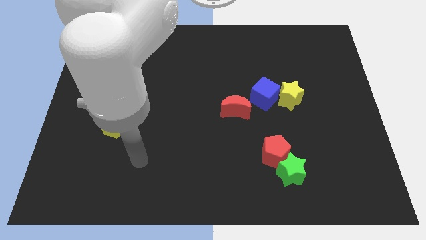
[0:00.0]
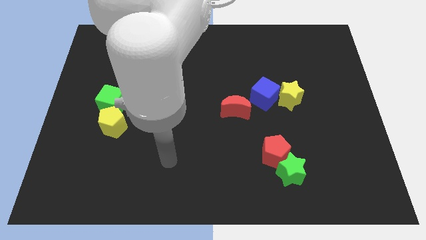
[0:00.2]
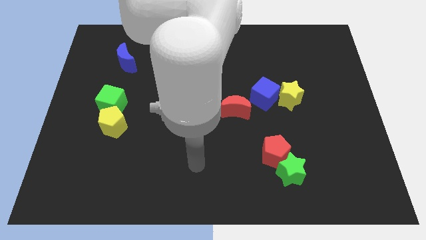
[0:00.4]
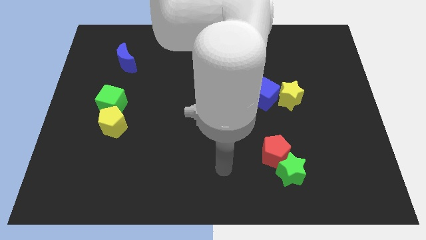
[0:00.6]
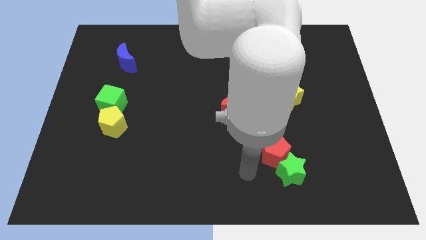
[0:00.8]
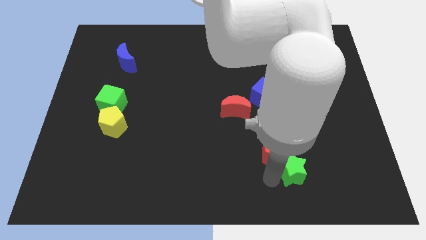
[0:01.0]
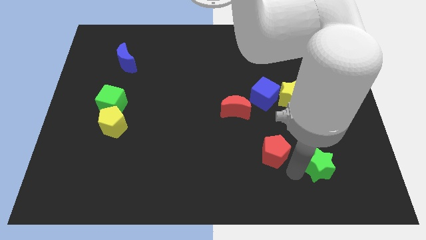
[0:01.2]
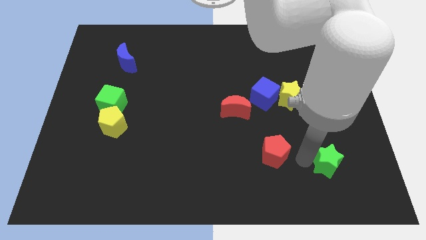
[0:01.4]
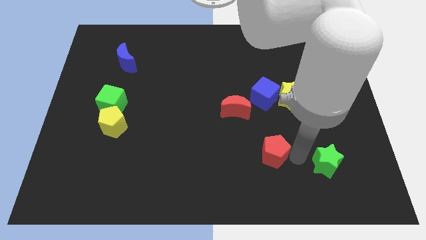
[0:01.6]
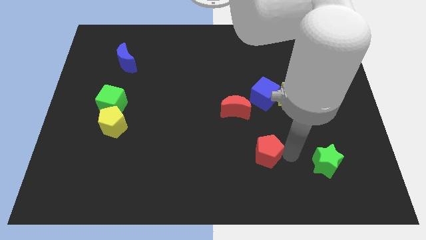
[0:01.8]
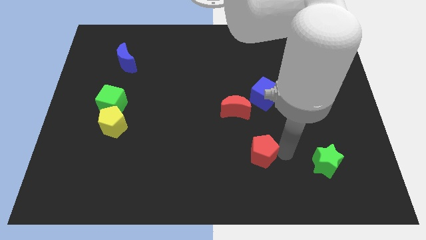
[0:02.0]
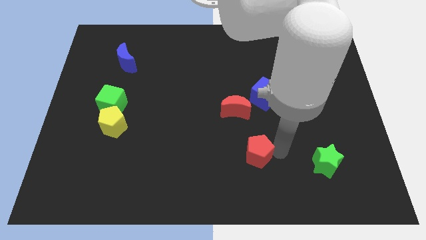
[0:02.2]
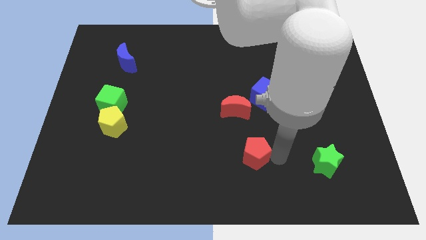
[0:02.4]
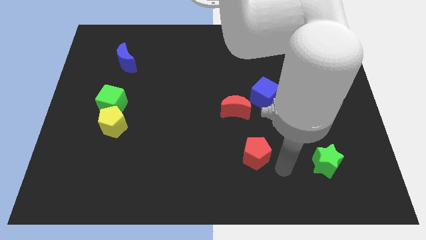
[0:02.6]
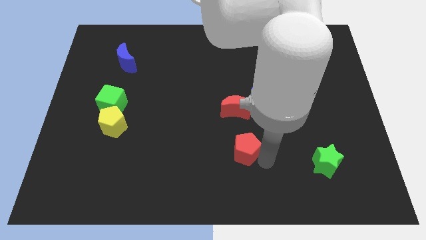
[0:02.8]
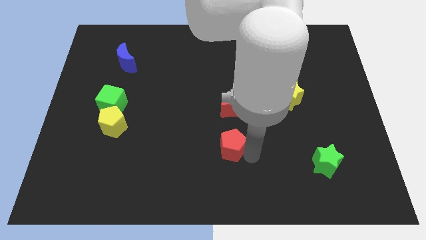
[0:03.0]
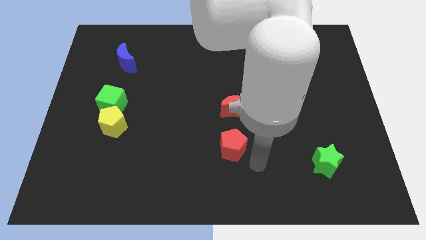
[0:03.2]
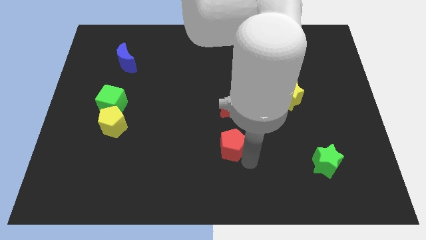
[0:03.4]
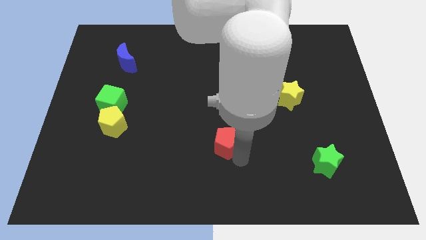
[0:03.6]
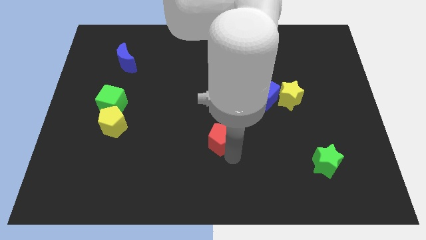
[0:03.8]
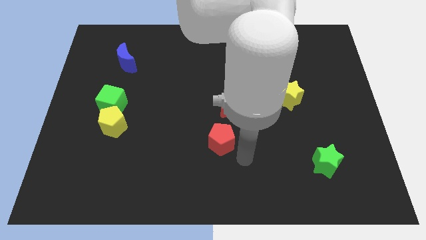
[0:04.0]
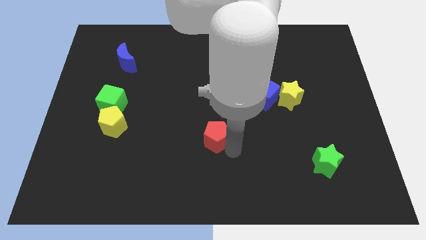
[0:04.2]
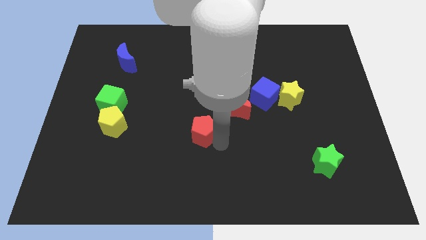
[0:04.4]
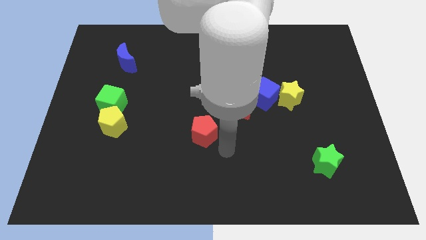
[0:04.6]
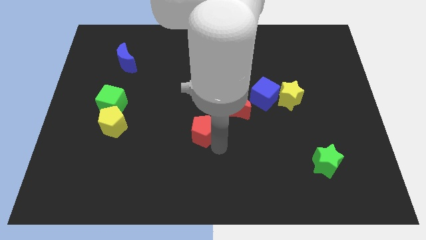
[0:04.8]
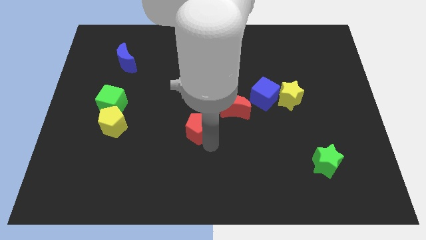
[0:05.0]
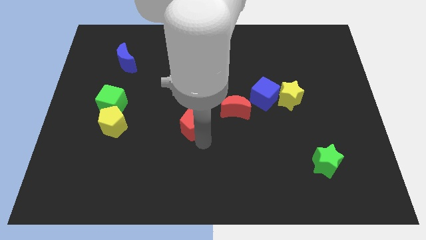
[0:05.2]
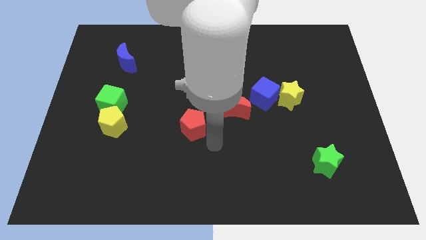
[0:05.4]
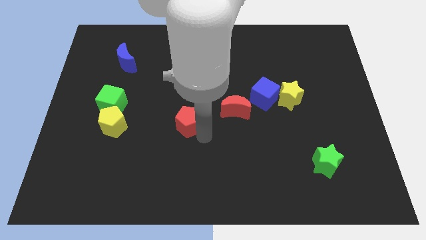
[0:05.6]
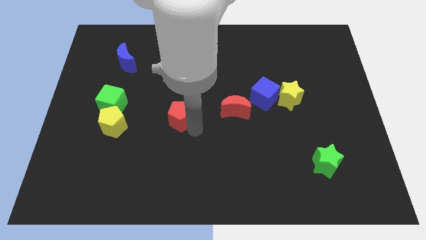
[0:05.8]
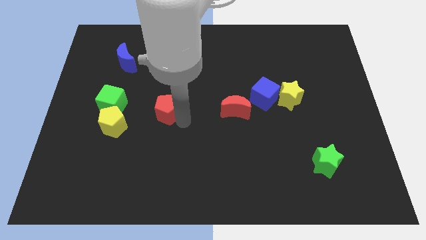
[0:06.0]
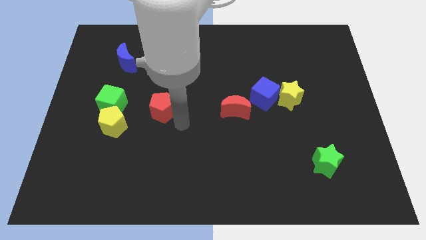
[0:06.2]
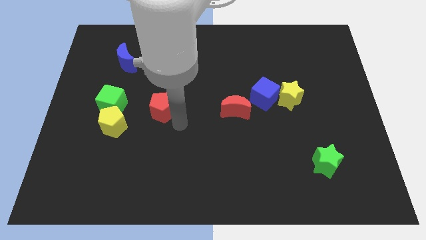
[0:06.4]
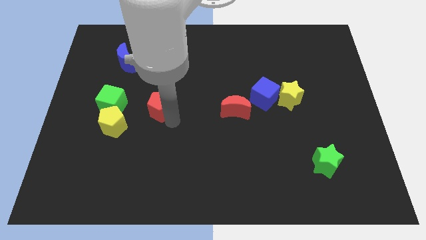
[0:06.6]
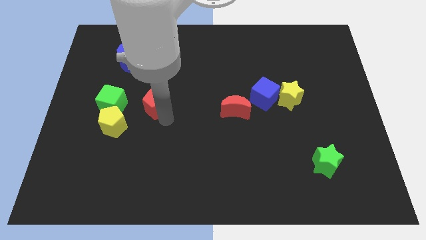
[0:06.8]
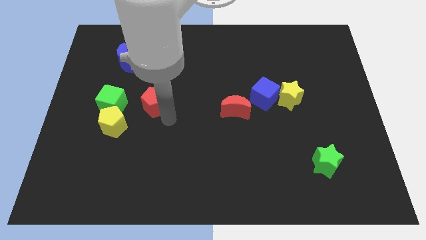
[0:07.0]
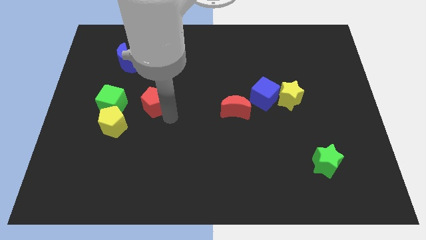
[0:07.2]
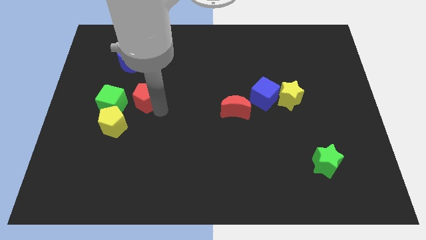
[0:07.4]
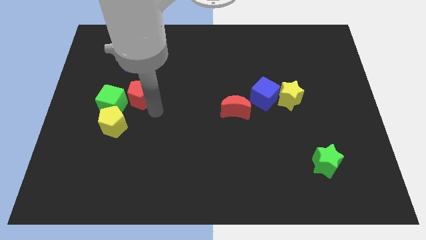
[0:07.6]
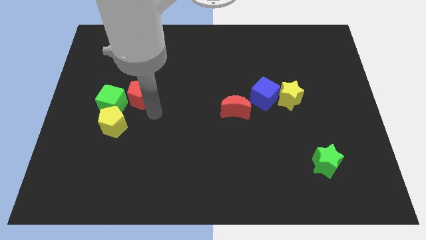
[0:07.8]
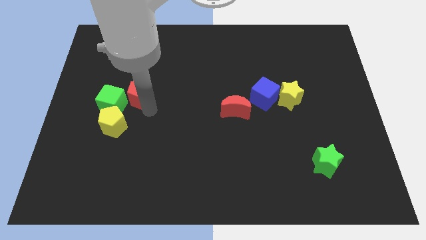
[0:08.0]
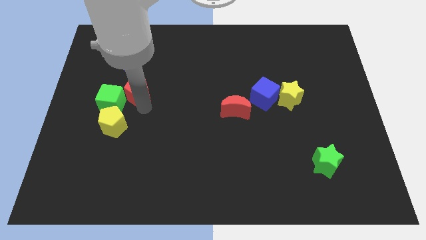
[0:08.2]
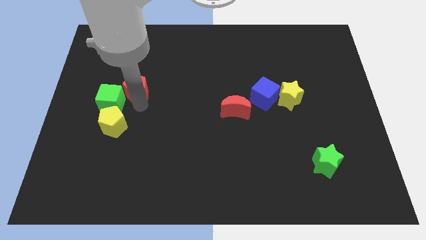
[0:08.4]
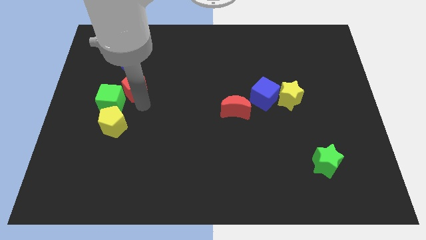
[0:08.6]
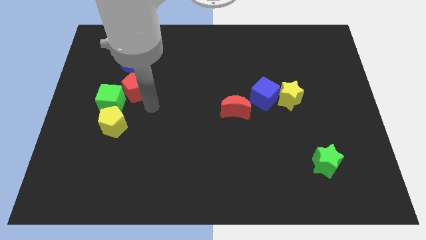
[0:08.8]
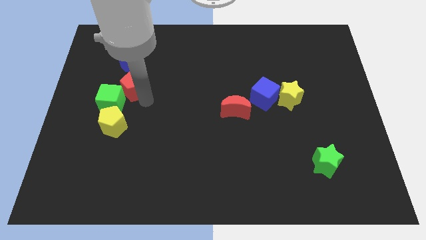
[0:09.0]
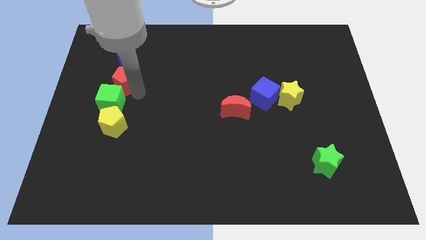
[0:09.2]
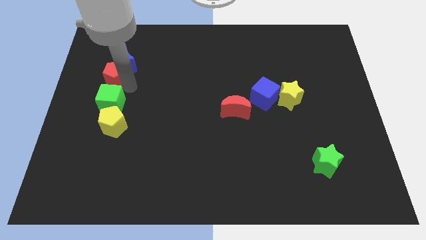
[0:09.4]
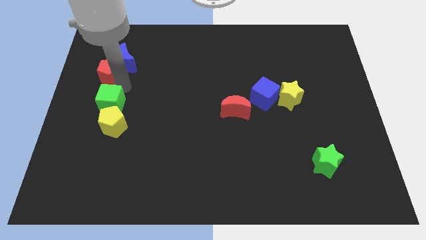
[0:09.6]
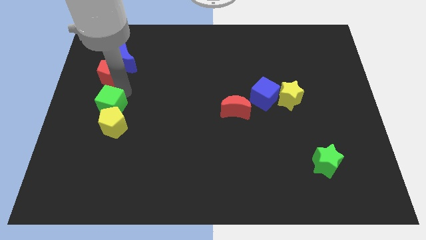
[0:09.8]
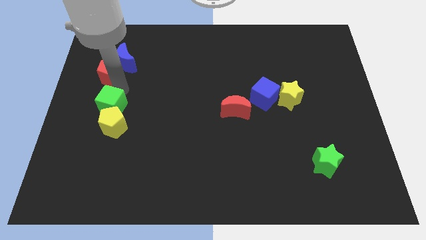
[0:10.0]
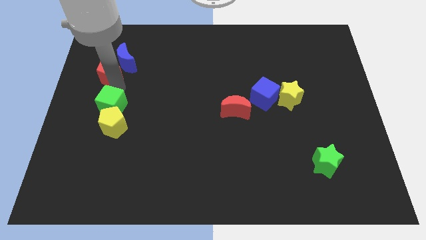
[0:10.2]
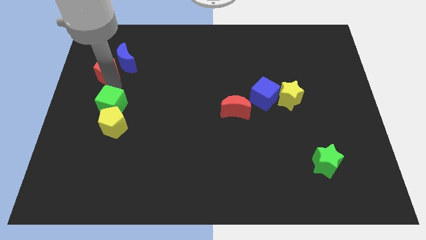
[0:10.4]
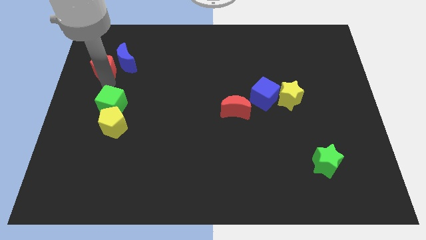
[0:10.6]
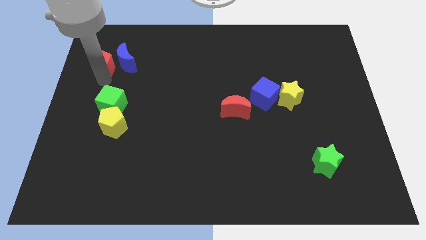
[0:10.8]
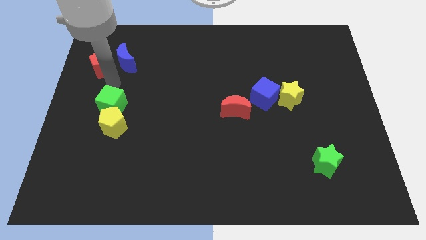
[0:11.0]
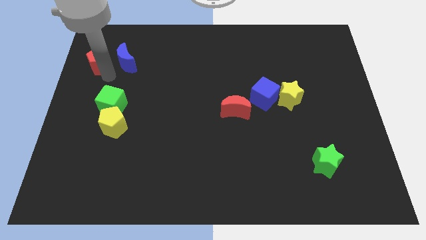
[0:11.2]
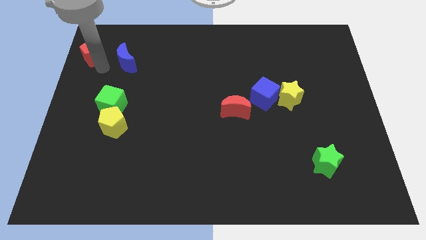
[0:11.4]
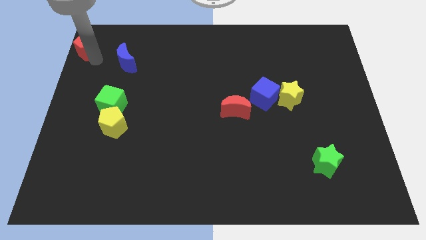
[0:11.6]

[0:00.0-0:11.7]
push the red pentagon to the top left of the board

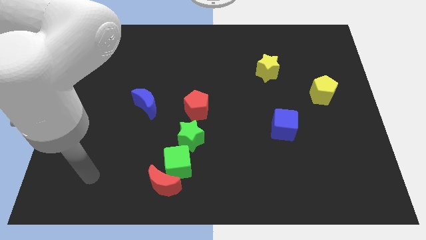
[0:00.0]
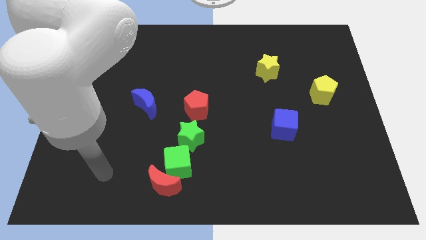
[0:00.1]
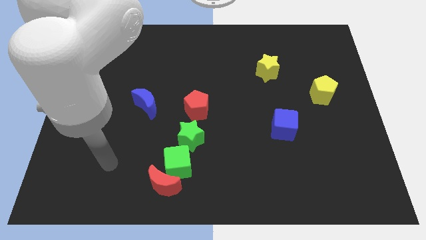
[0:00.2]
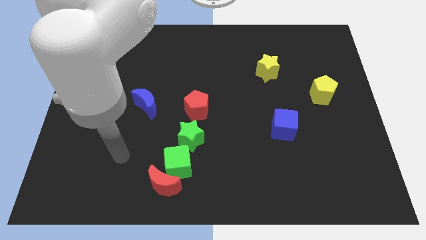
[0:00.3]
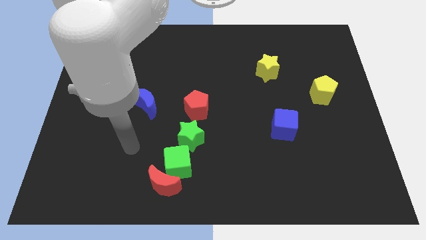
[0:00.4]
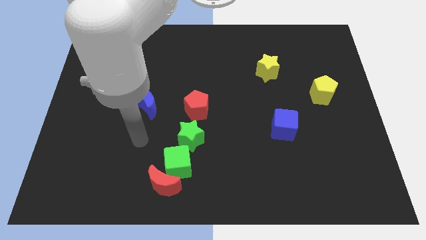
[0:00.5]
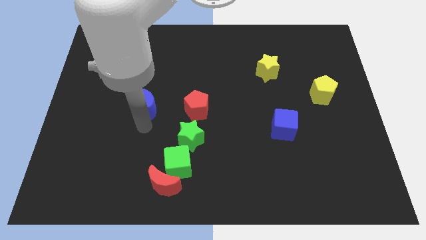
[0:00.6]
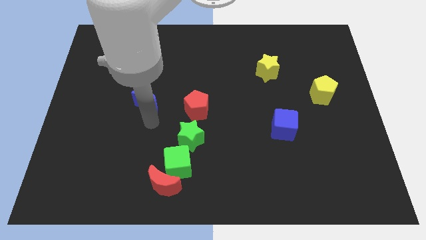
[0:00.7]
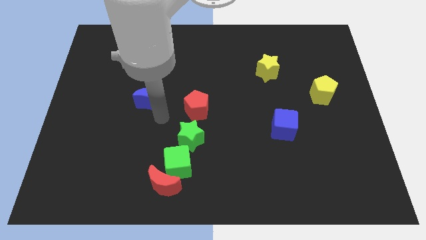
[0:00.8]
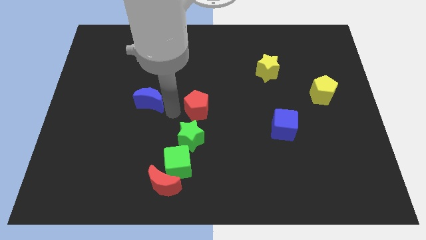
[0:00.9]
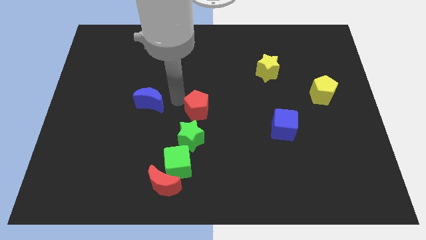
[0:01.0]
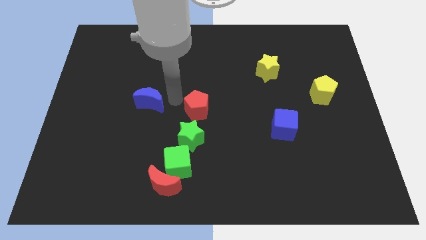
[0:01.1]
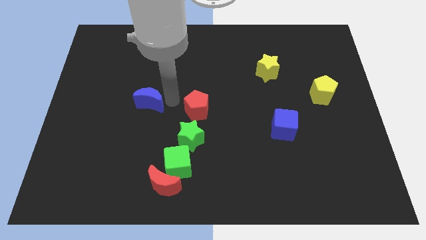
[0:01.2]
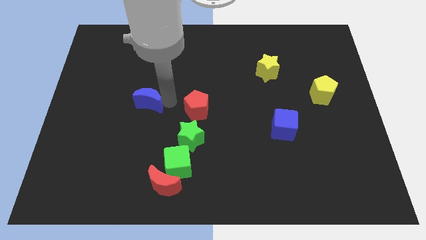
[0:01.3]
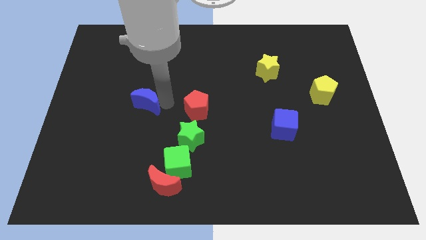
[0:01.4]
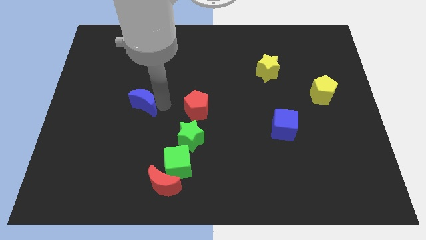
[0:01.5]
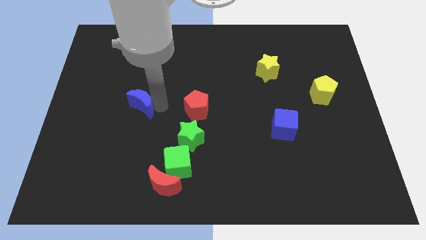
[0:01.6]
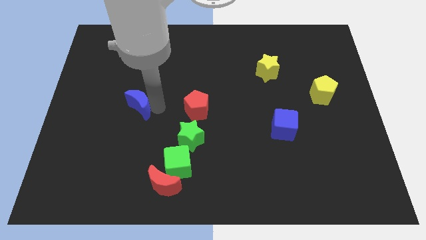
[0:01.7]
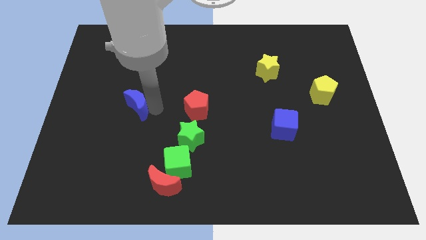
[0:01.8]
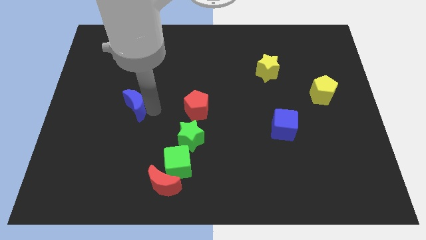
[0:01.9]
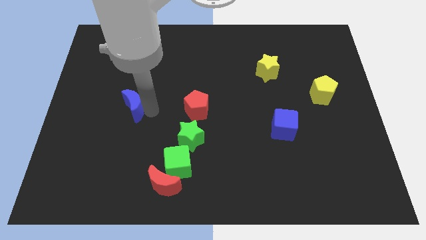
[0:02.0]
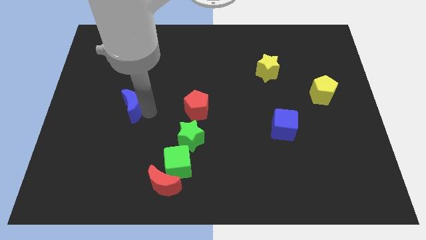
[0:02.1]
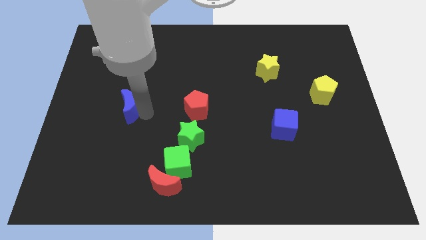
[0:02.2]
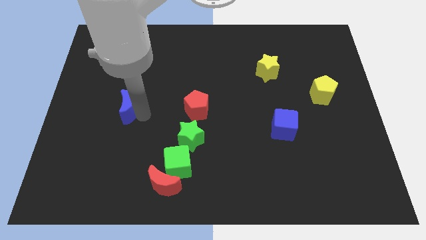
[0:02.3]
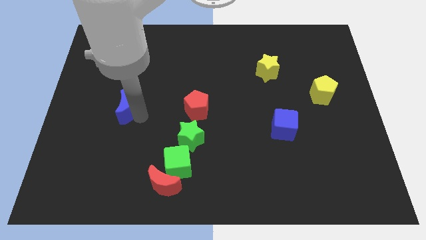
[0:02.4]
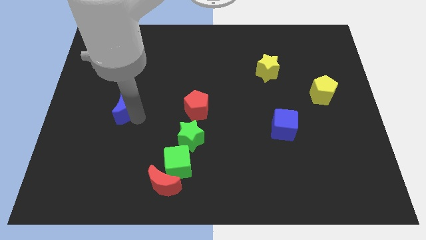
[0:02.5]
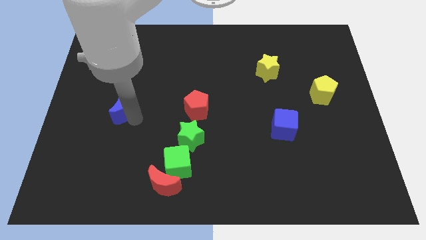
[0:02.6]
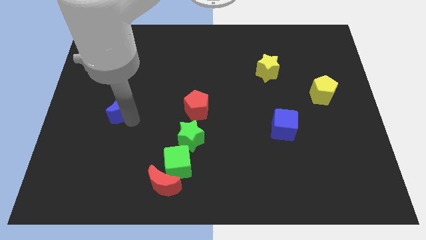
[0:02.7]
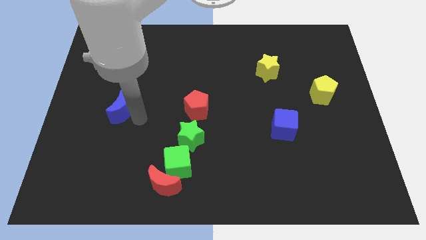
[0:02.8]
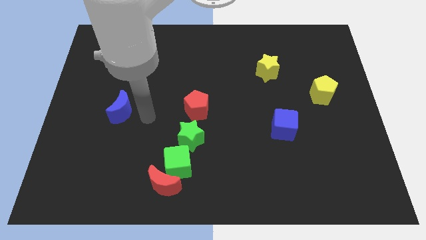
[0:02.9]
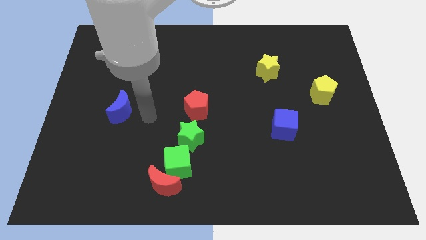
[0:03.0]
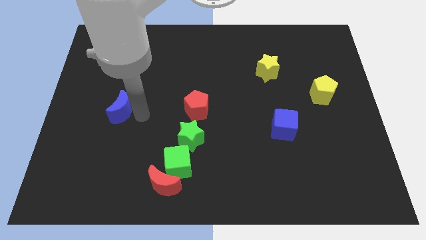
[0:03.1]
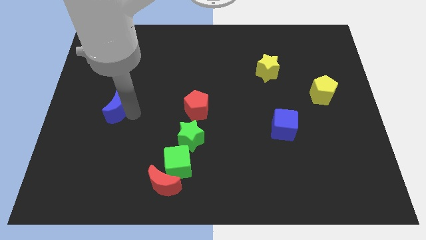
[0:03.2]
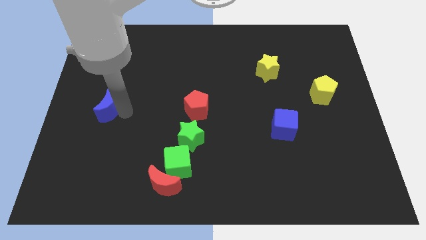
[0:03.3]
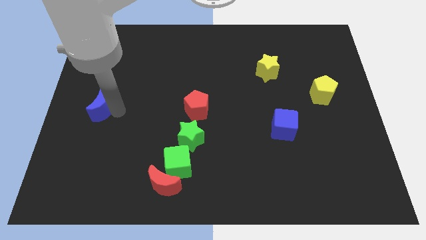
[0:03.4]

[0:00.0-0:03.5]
slide the blue moon to the left side of the board
